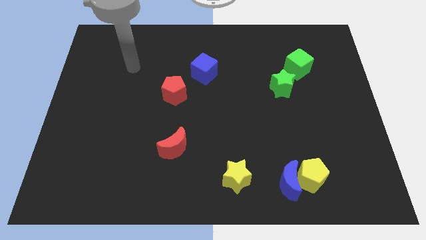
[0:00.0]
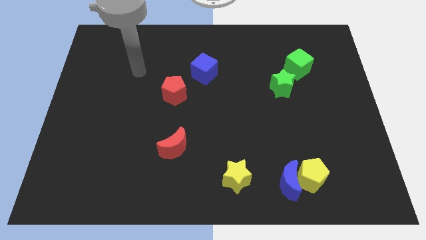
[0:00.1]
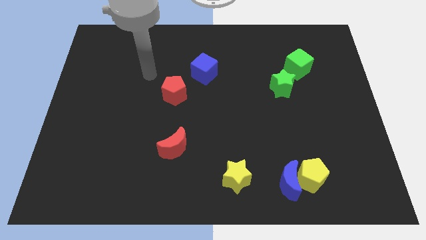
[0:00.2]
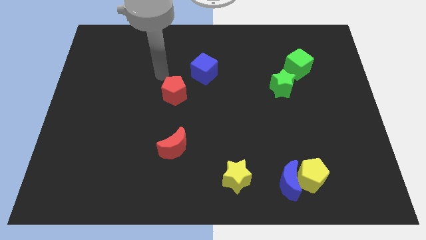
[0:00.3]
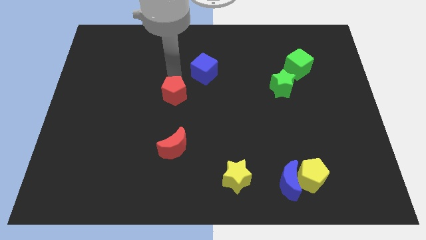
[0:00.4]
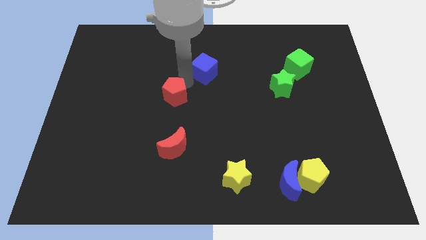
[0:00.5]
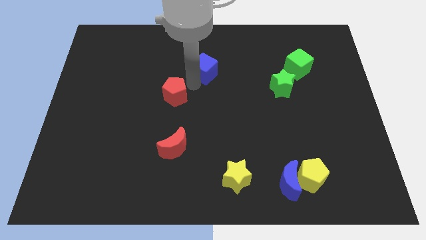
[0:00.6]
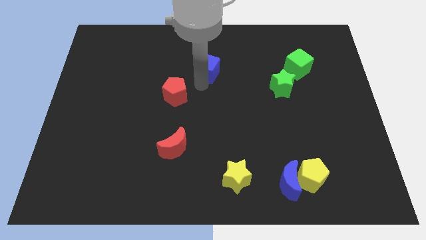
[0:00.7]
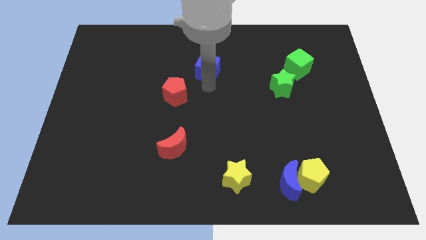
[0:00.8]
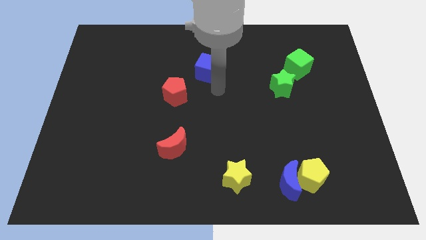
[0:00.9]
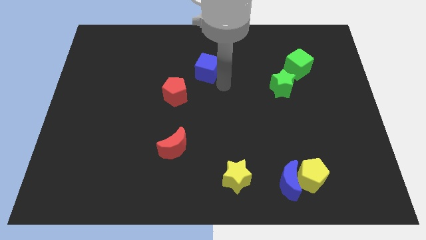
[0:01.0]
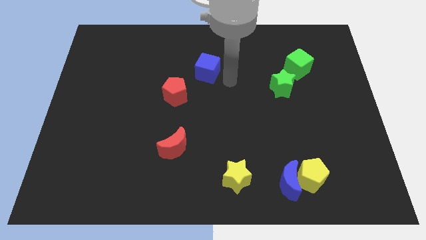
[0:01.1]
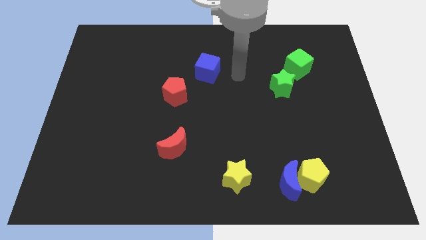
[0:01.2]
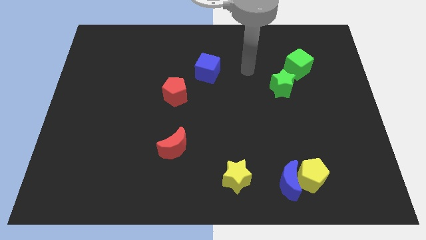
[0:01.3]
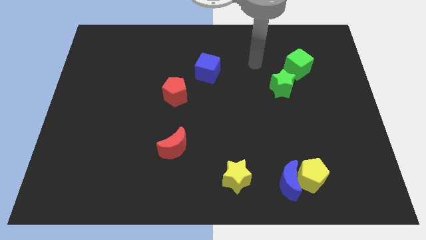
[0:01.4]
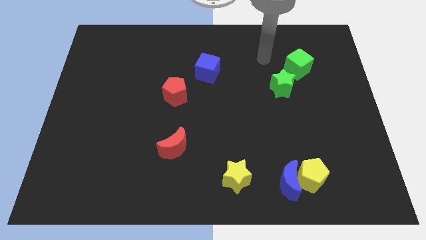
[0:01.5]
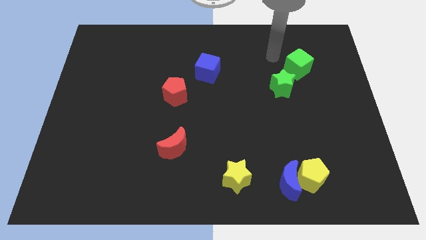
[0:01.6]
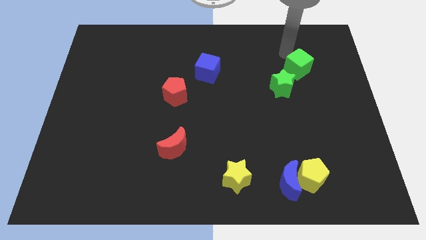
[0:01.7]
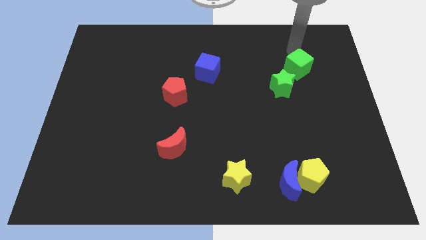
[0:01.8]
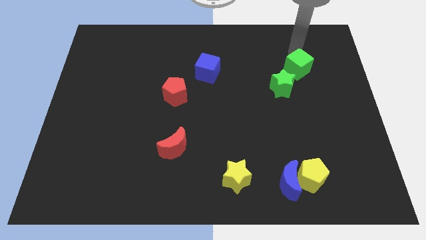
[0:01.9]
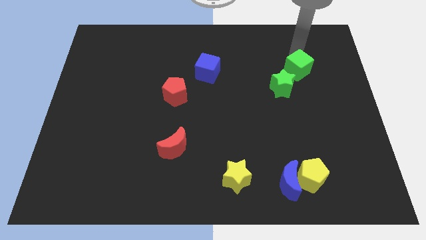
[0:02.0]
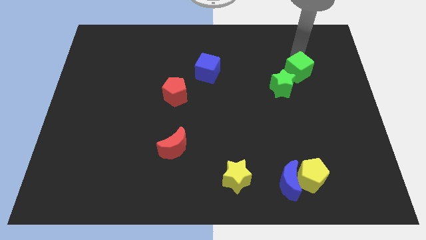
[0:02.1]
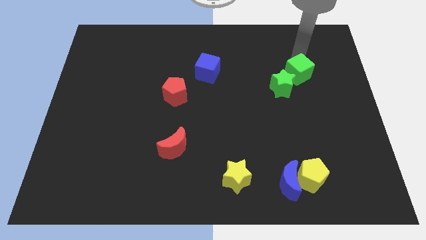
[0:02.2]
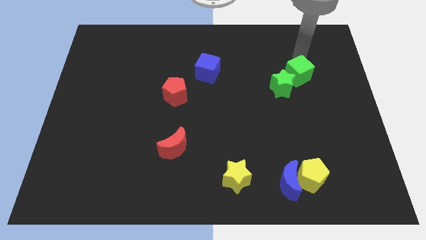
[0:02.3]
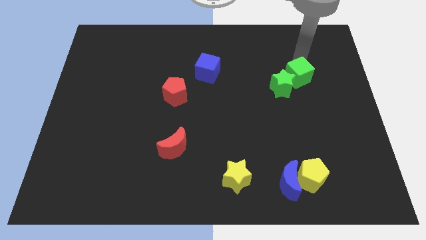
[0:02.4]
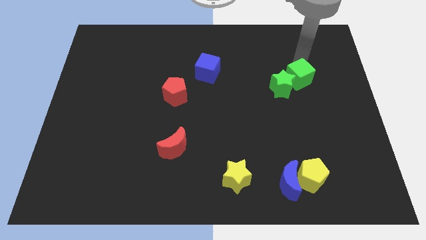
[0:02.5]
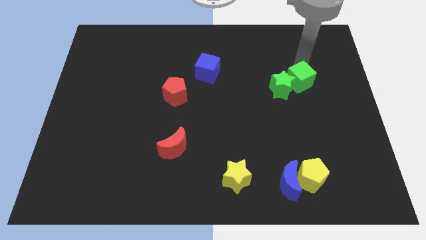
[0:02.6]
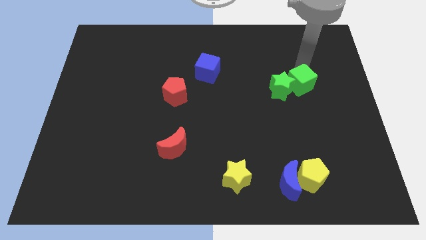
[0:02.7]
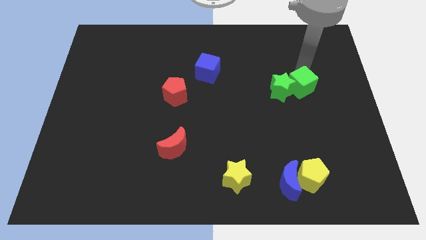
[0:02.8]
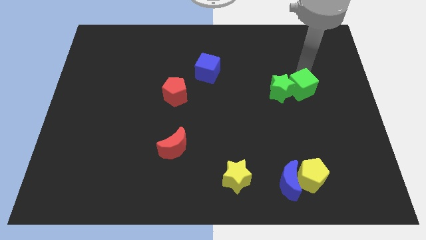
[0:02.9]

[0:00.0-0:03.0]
move the green cube a little bit downwards

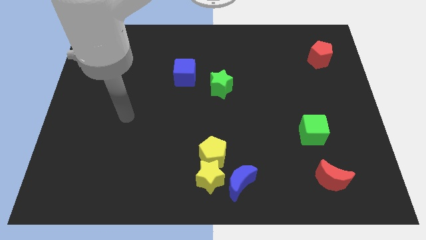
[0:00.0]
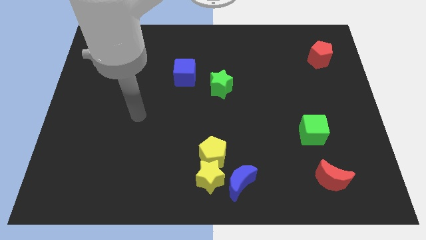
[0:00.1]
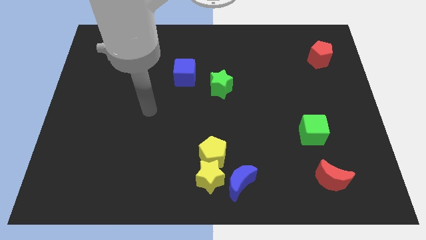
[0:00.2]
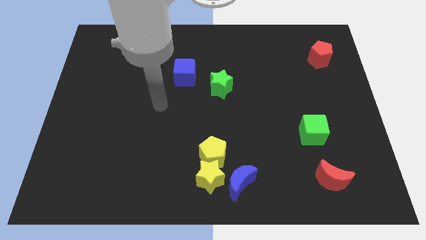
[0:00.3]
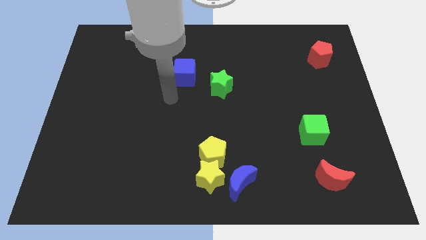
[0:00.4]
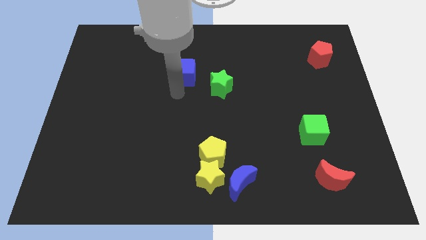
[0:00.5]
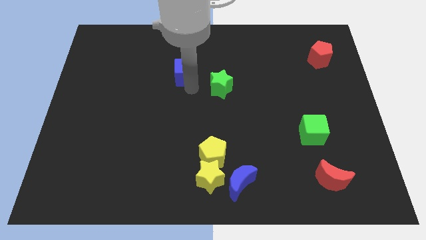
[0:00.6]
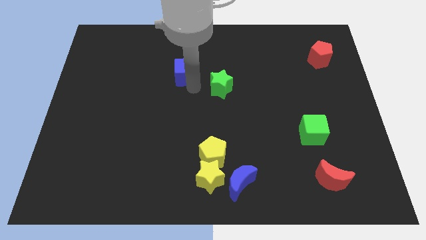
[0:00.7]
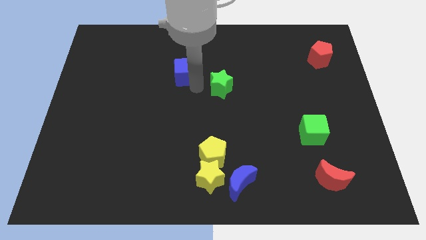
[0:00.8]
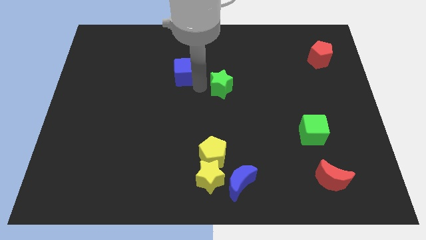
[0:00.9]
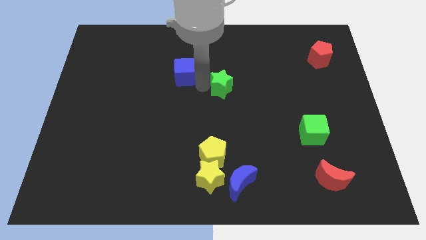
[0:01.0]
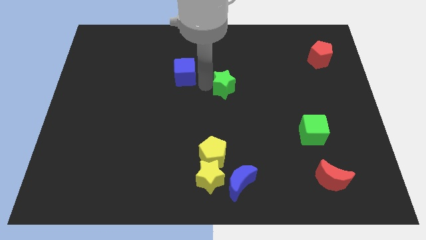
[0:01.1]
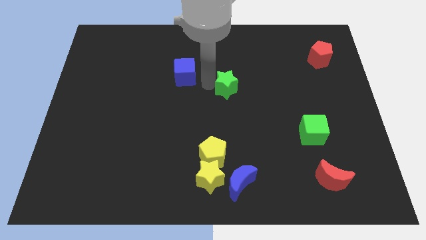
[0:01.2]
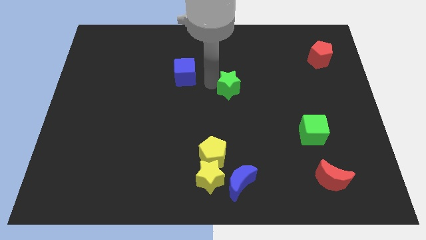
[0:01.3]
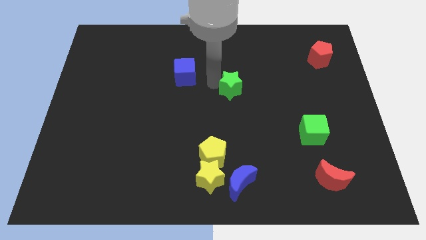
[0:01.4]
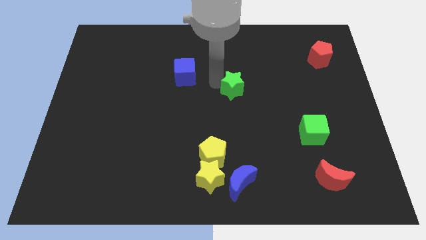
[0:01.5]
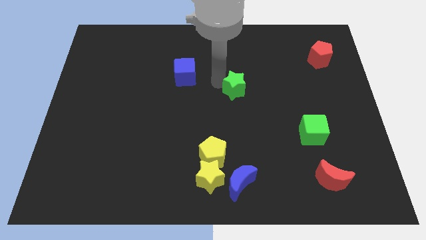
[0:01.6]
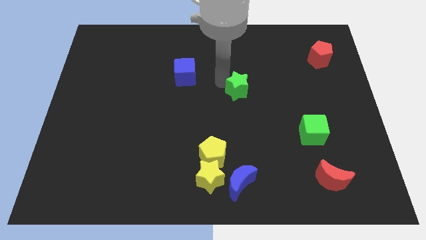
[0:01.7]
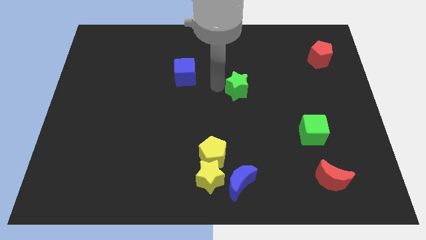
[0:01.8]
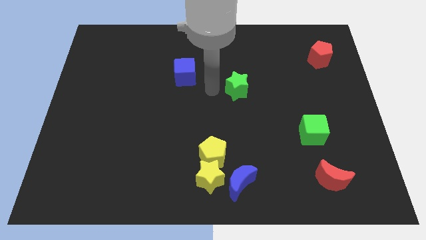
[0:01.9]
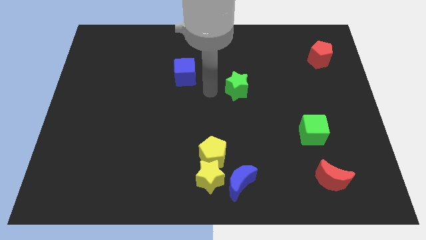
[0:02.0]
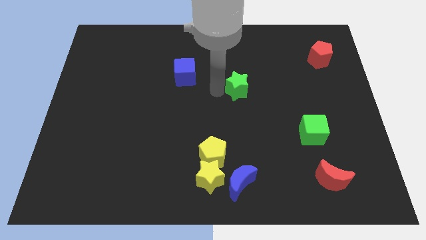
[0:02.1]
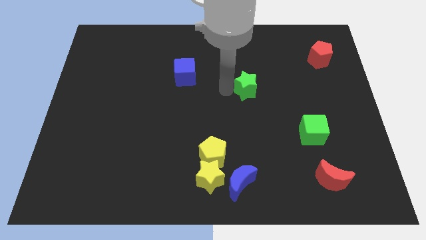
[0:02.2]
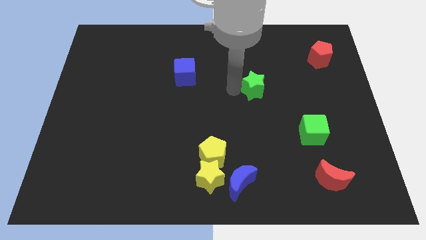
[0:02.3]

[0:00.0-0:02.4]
push the green star to the right a bit

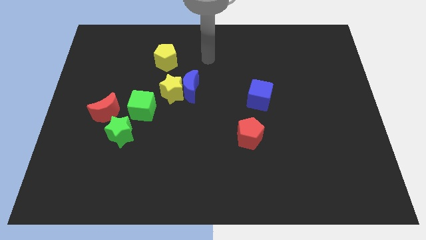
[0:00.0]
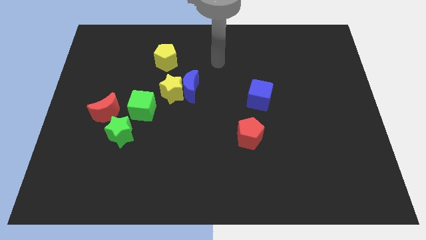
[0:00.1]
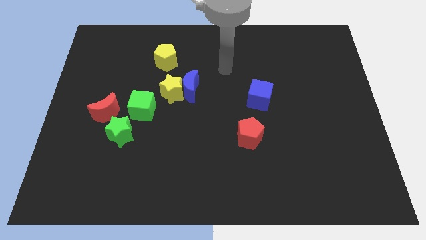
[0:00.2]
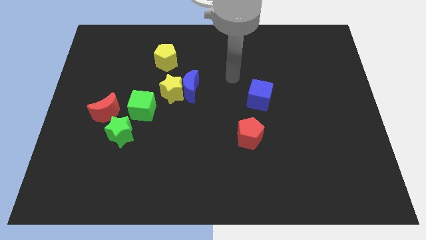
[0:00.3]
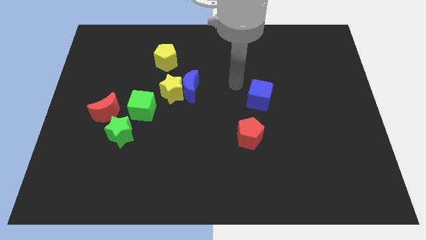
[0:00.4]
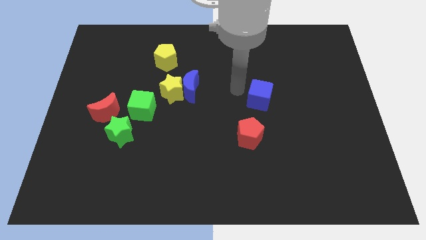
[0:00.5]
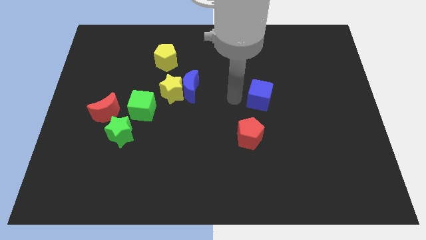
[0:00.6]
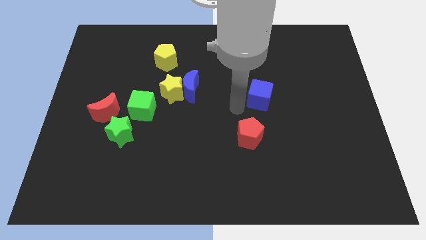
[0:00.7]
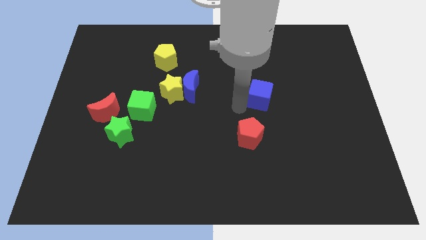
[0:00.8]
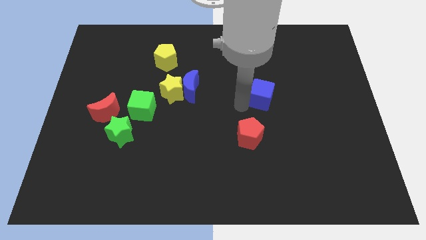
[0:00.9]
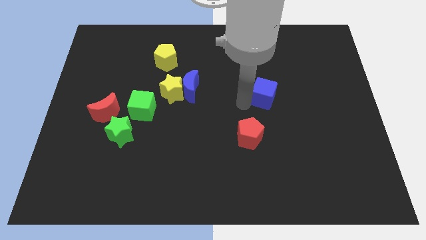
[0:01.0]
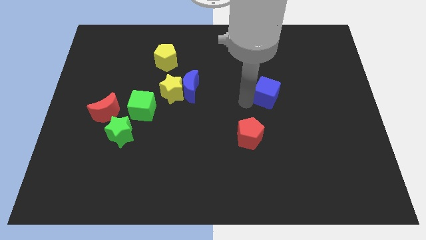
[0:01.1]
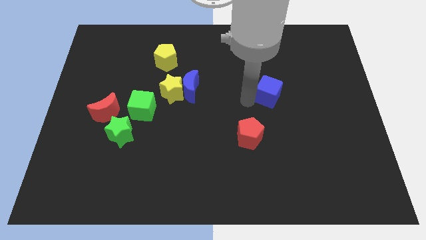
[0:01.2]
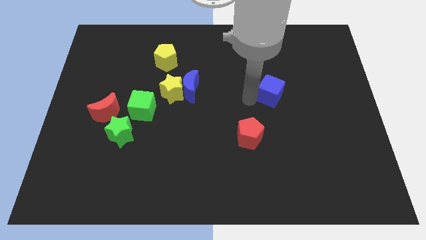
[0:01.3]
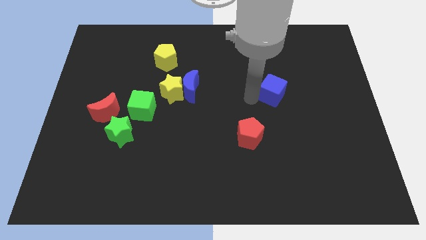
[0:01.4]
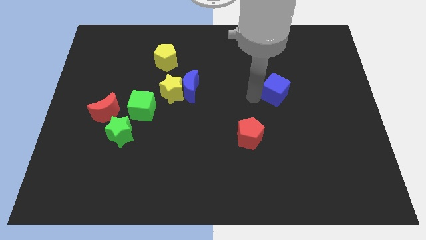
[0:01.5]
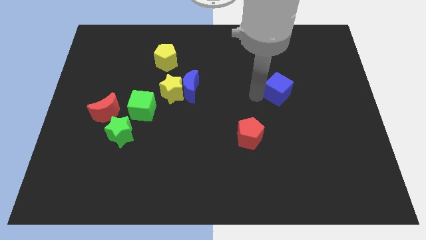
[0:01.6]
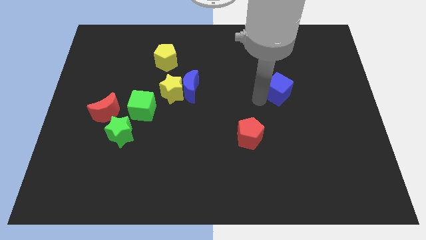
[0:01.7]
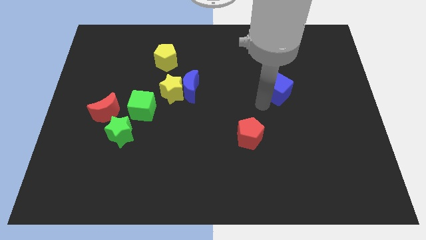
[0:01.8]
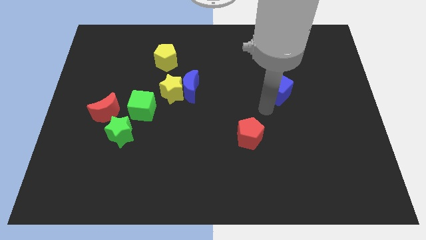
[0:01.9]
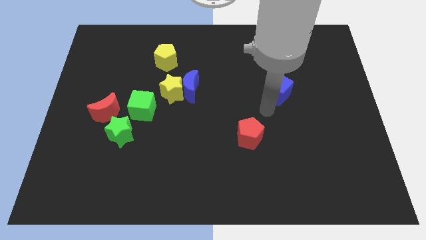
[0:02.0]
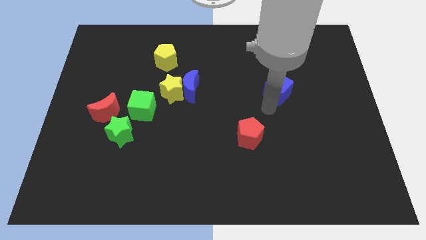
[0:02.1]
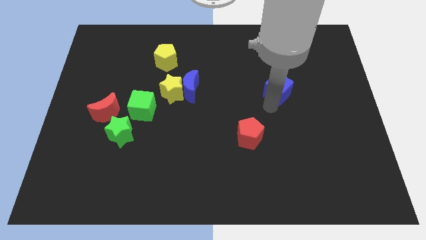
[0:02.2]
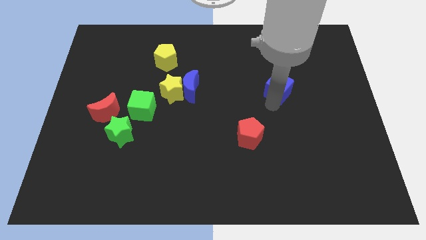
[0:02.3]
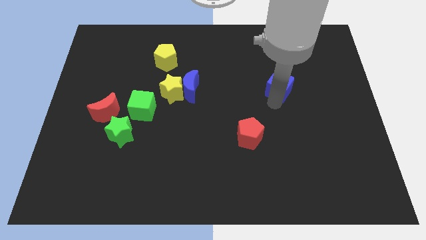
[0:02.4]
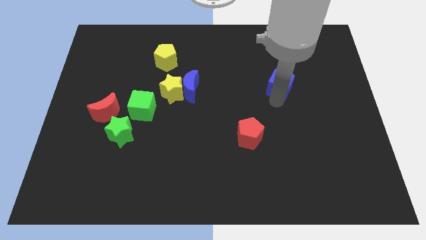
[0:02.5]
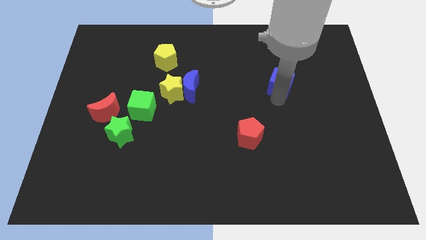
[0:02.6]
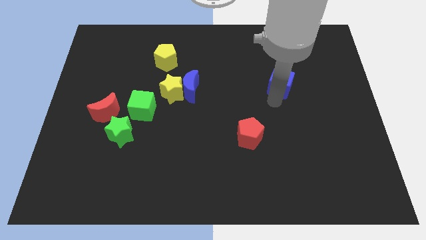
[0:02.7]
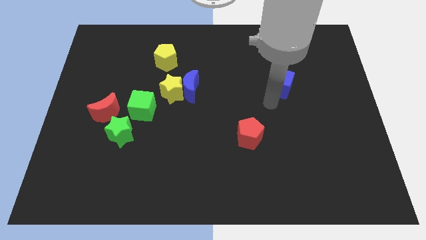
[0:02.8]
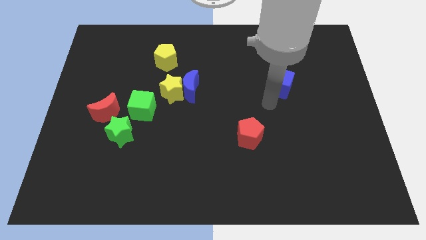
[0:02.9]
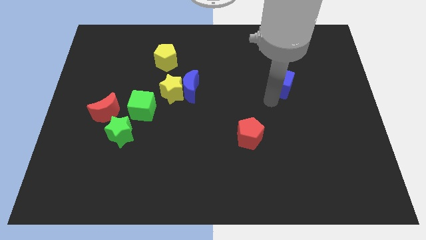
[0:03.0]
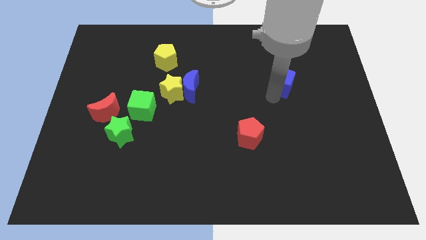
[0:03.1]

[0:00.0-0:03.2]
push the blue cube somewhat upwards and right diagonally
